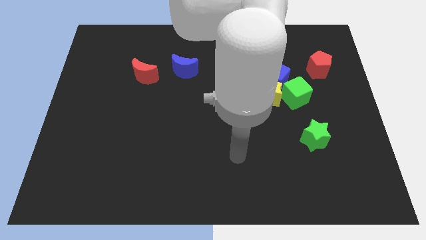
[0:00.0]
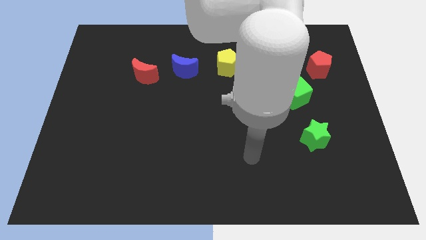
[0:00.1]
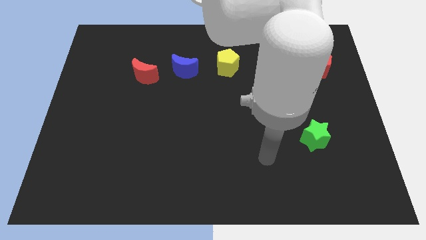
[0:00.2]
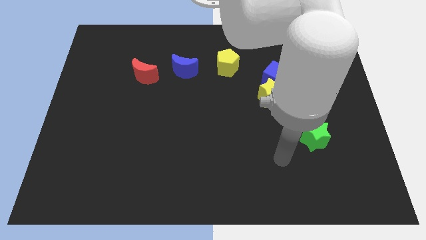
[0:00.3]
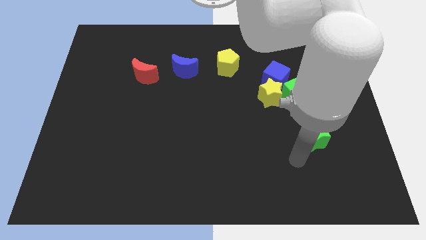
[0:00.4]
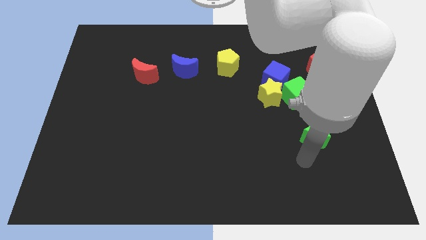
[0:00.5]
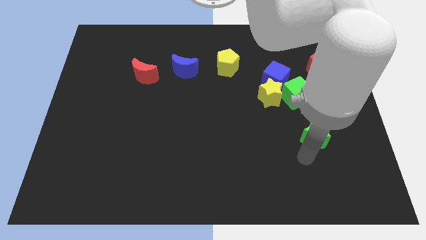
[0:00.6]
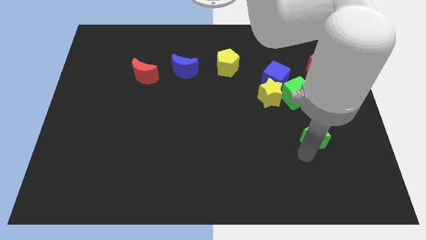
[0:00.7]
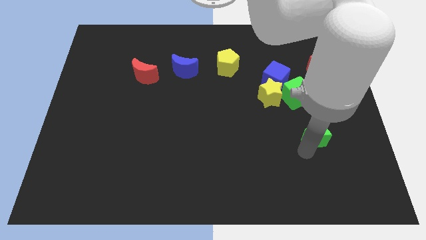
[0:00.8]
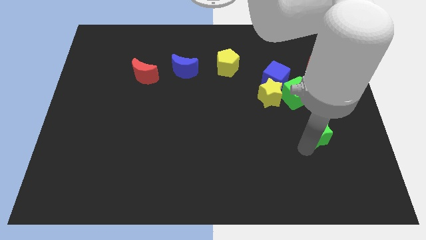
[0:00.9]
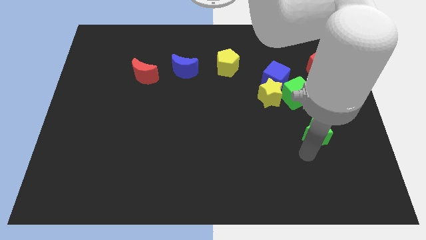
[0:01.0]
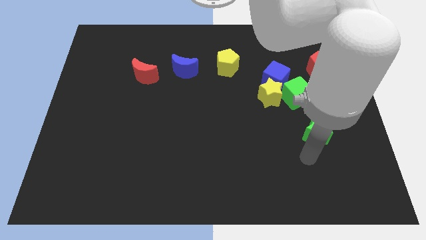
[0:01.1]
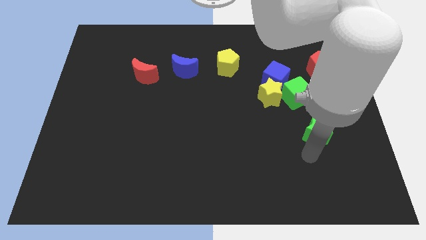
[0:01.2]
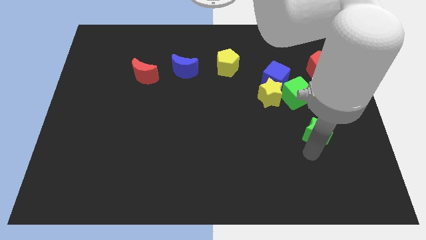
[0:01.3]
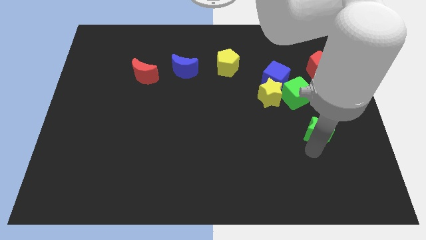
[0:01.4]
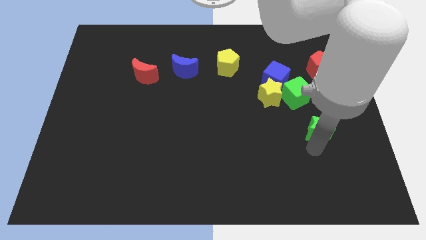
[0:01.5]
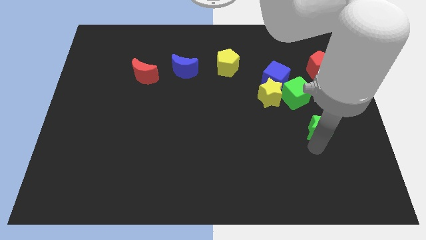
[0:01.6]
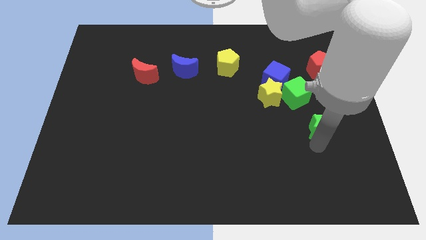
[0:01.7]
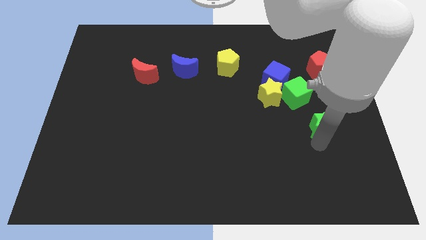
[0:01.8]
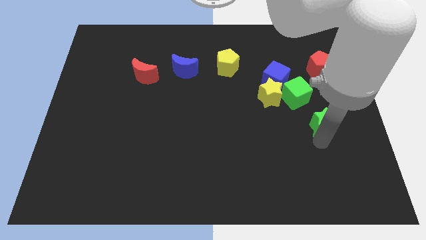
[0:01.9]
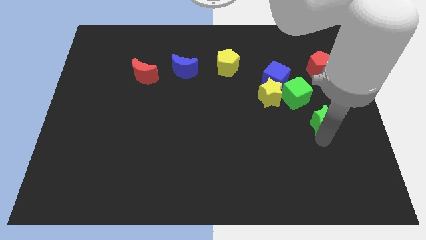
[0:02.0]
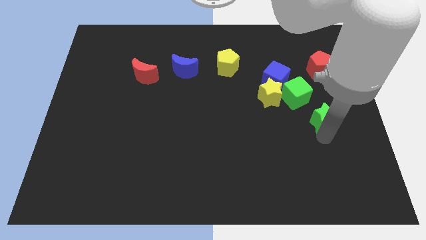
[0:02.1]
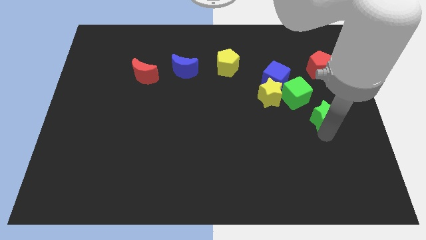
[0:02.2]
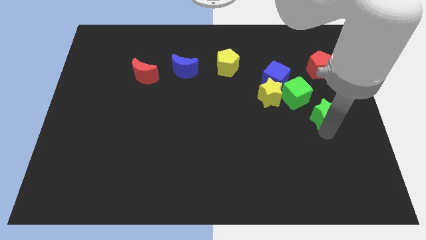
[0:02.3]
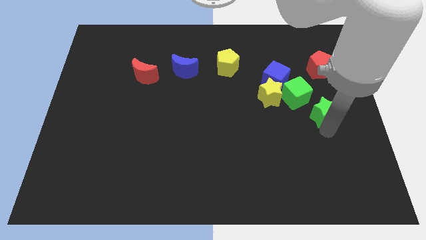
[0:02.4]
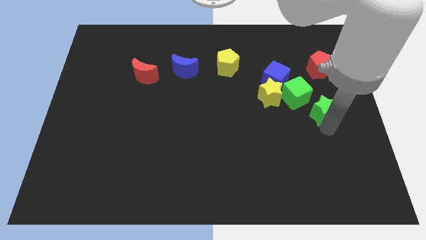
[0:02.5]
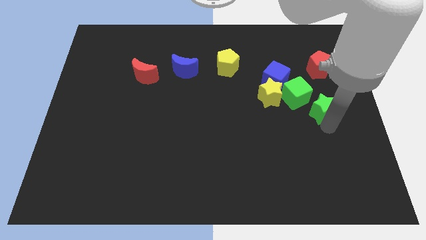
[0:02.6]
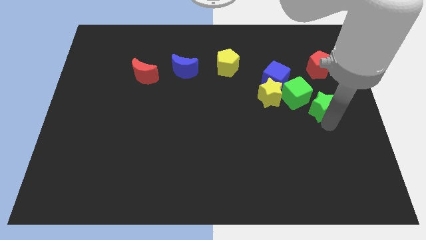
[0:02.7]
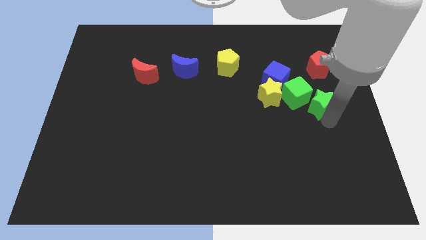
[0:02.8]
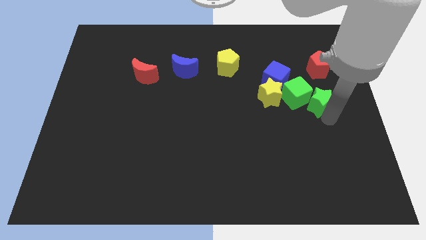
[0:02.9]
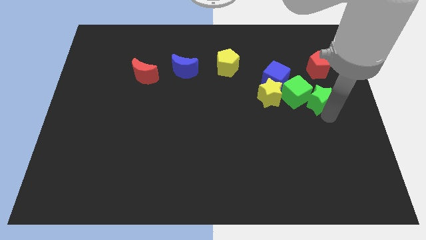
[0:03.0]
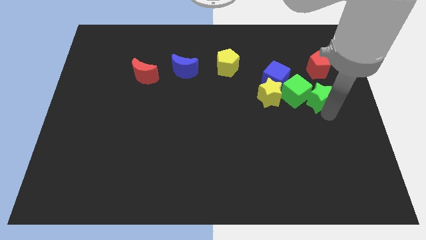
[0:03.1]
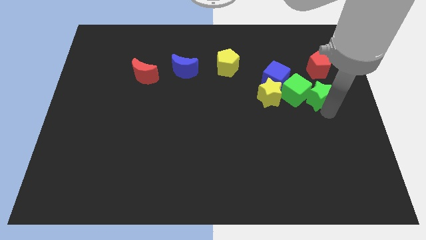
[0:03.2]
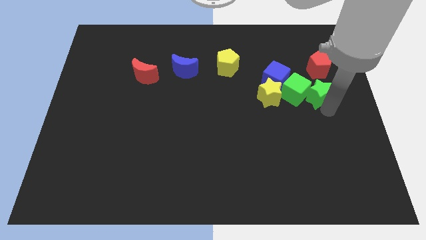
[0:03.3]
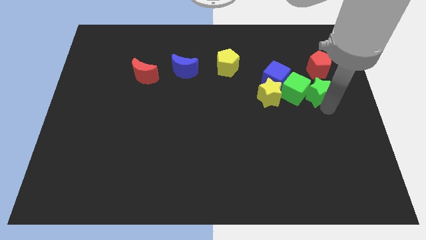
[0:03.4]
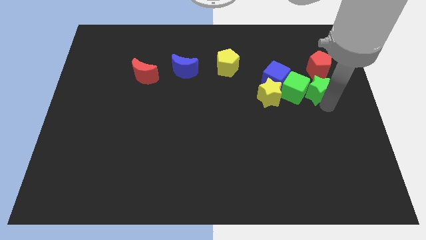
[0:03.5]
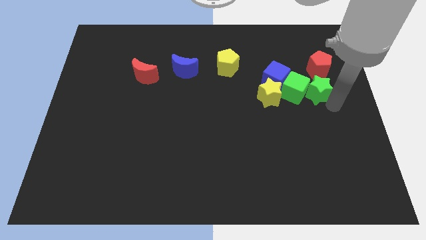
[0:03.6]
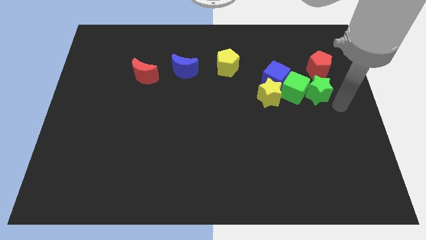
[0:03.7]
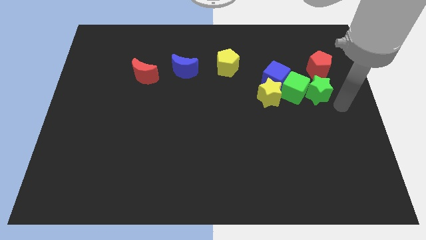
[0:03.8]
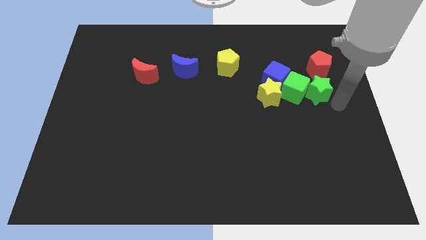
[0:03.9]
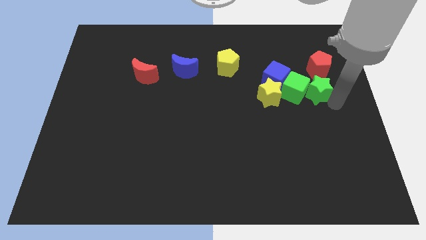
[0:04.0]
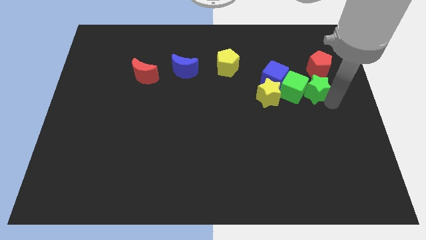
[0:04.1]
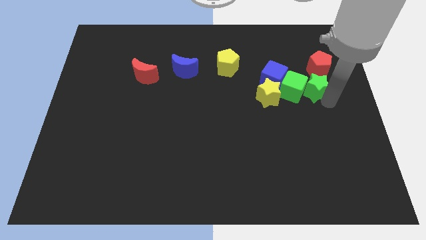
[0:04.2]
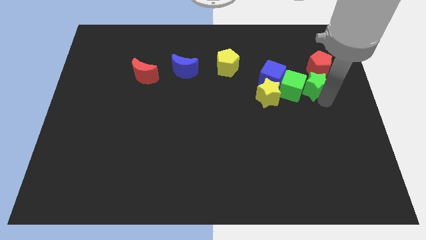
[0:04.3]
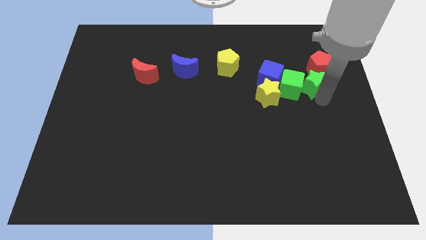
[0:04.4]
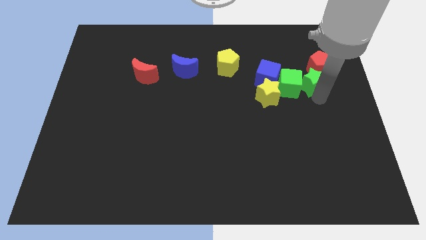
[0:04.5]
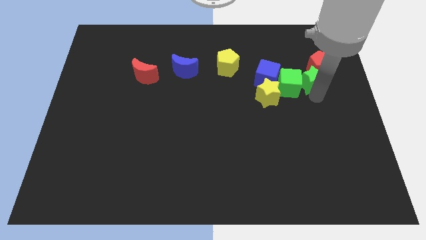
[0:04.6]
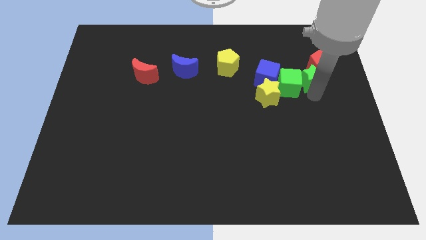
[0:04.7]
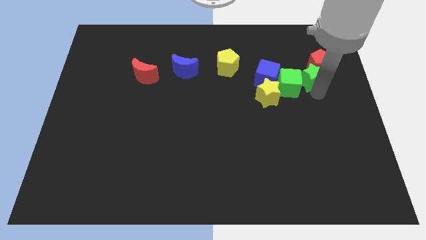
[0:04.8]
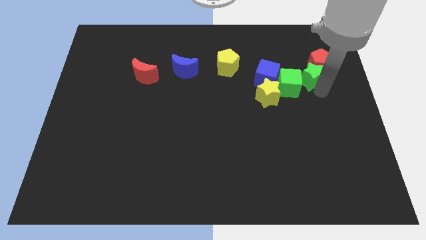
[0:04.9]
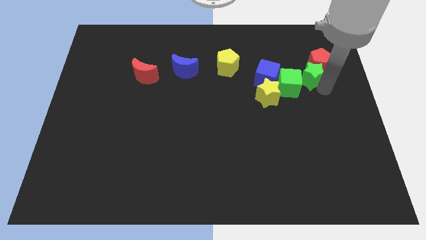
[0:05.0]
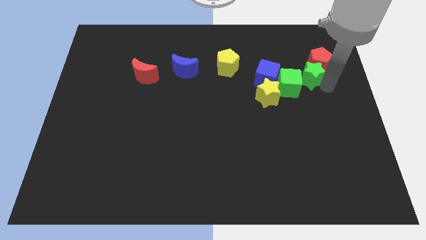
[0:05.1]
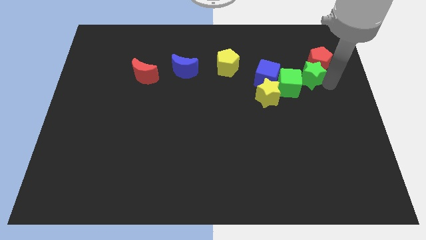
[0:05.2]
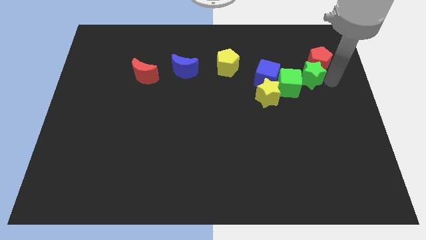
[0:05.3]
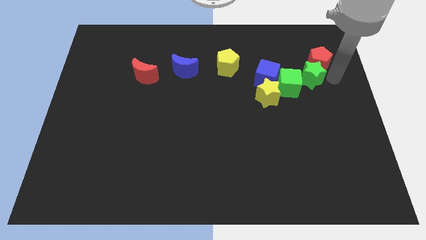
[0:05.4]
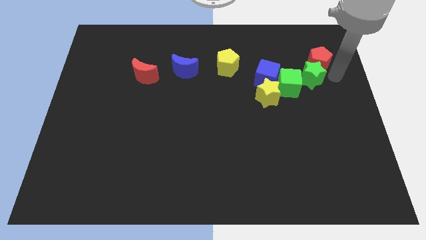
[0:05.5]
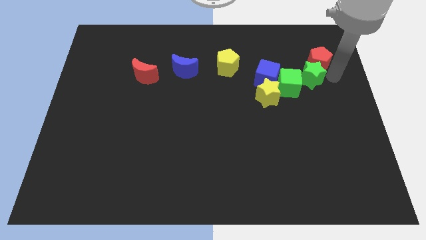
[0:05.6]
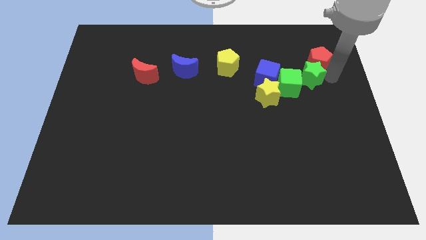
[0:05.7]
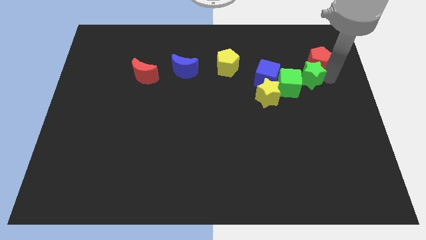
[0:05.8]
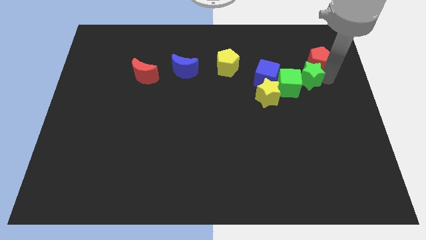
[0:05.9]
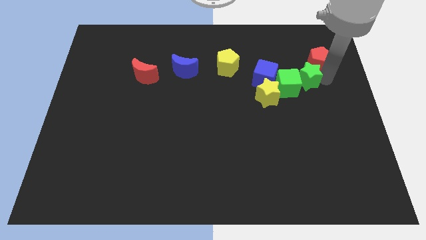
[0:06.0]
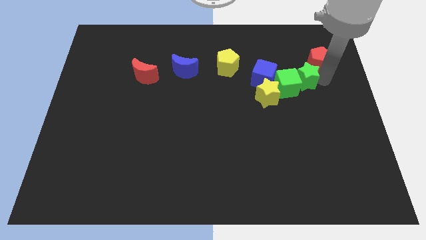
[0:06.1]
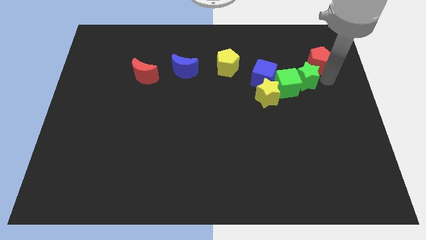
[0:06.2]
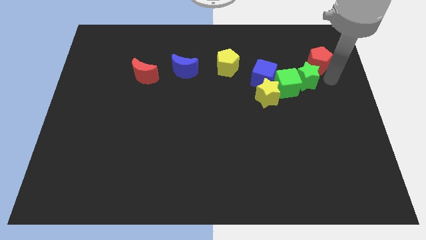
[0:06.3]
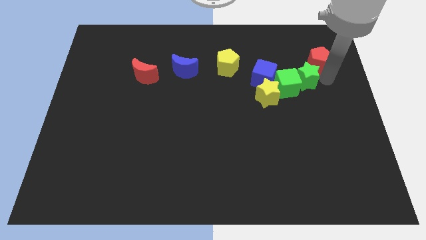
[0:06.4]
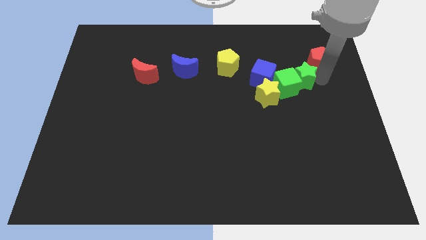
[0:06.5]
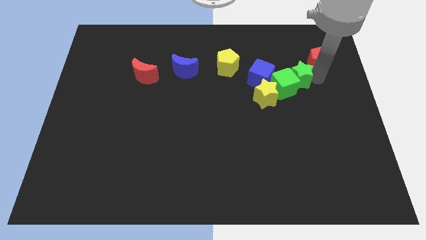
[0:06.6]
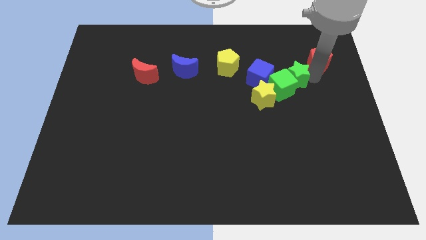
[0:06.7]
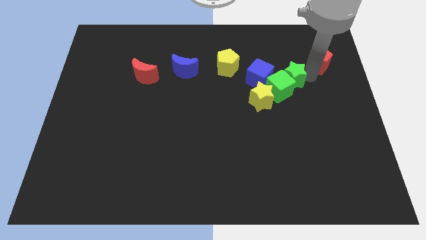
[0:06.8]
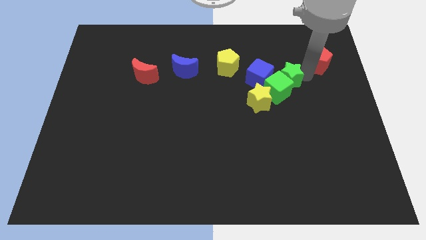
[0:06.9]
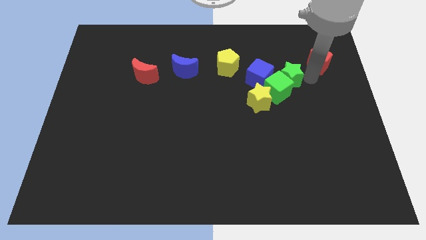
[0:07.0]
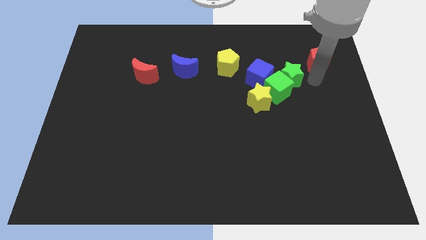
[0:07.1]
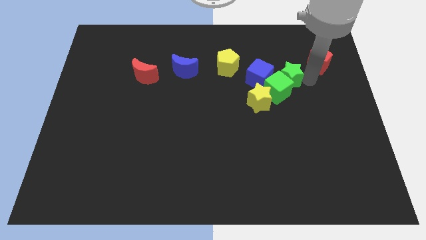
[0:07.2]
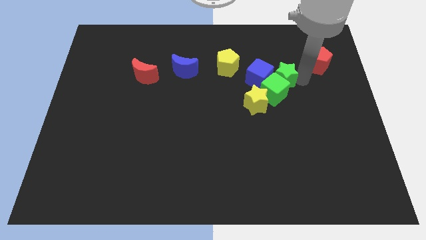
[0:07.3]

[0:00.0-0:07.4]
move the green star towards the blue cube
